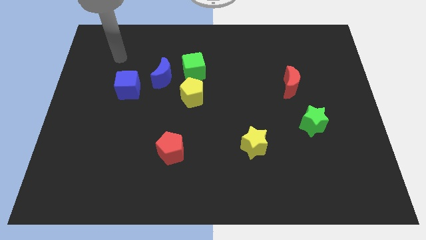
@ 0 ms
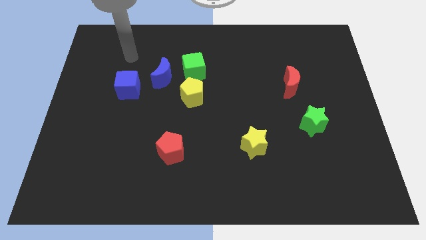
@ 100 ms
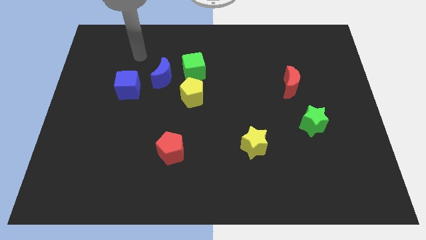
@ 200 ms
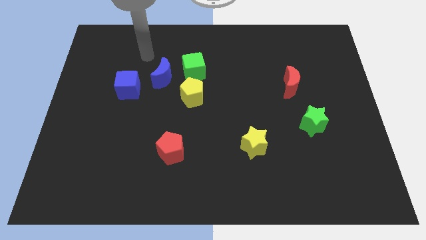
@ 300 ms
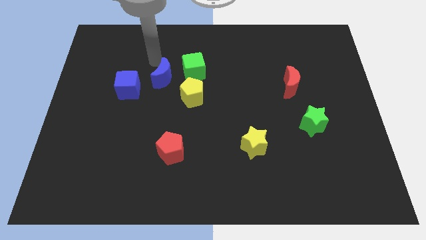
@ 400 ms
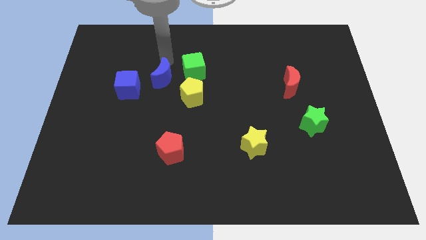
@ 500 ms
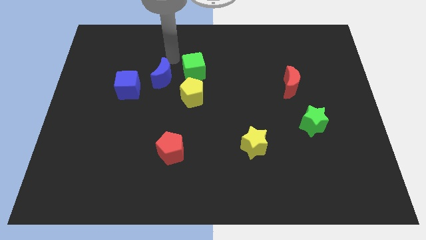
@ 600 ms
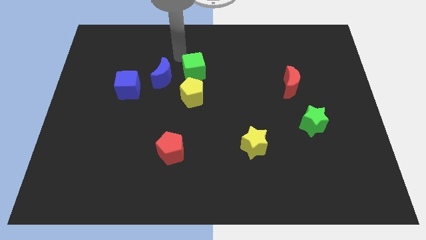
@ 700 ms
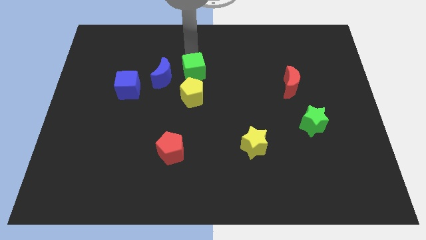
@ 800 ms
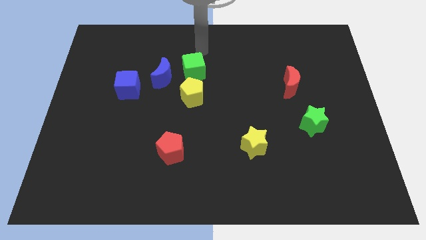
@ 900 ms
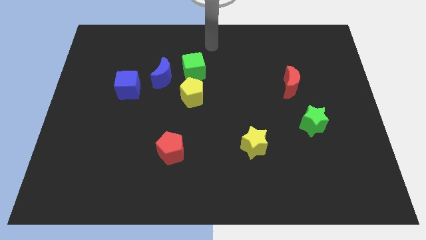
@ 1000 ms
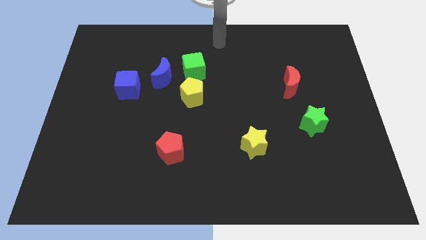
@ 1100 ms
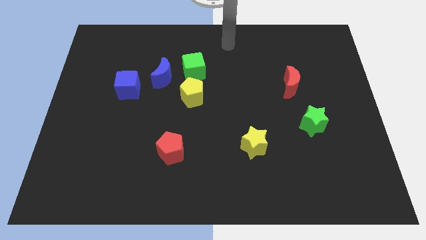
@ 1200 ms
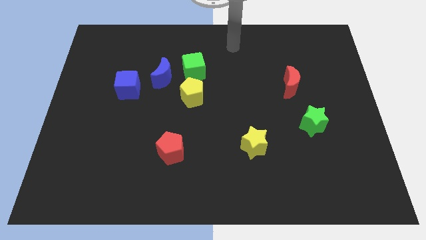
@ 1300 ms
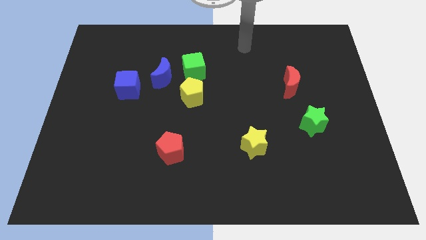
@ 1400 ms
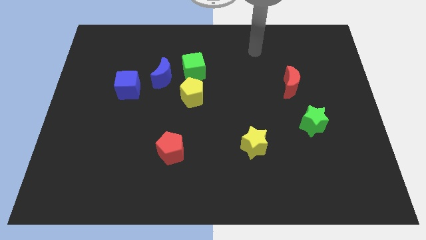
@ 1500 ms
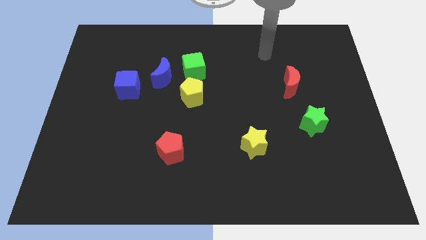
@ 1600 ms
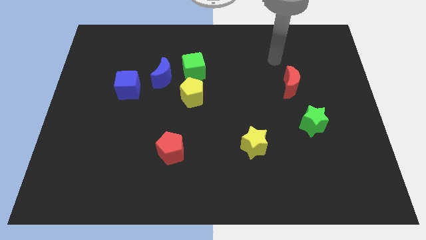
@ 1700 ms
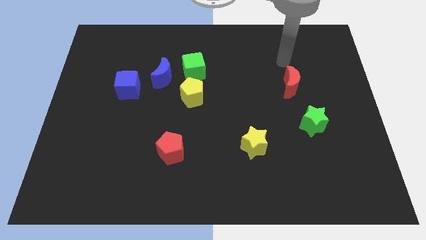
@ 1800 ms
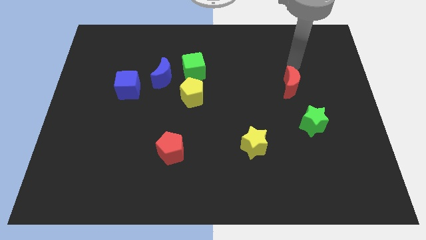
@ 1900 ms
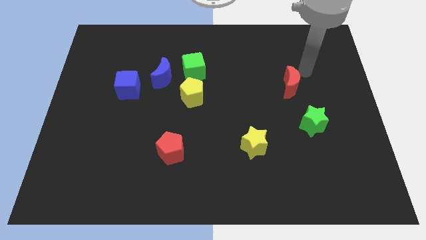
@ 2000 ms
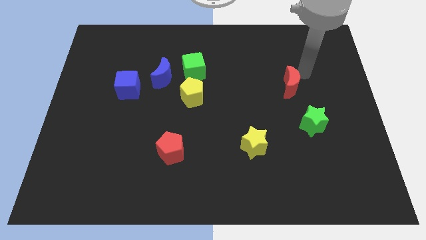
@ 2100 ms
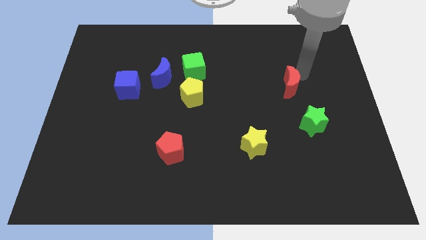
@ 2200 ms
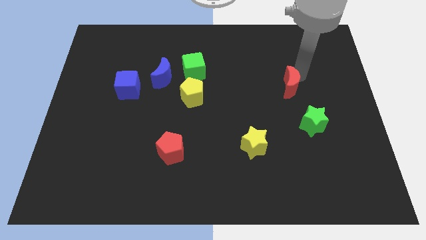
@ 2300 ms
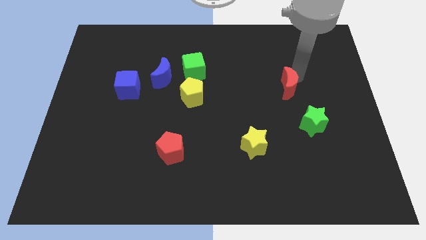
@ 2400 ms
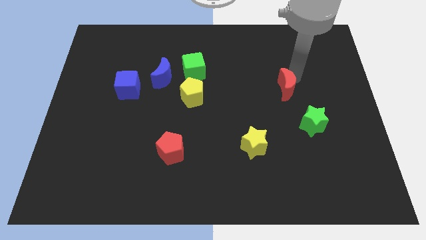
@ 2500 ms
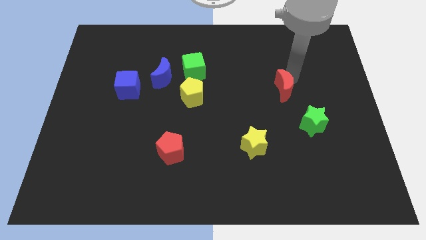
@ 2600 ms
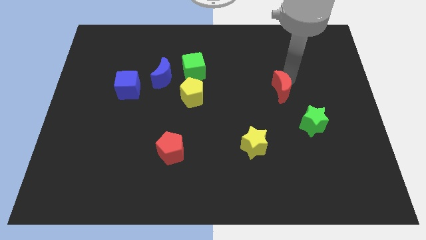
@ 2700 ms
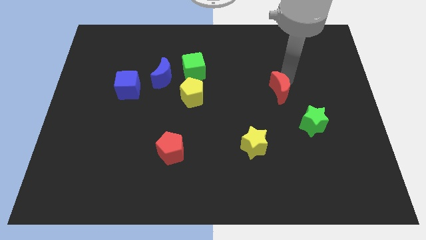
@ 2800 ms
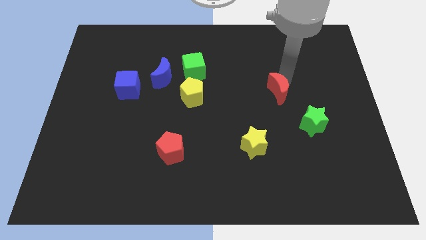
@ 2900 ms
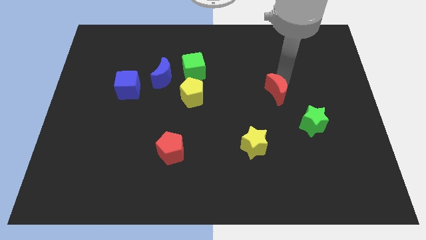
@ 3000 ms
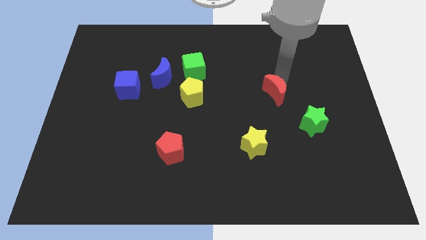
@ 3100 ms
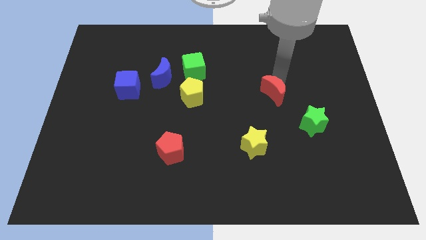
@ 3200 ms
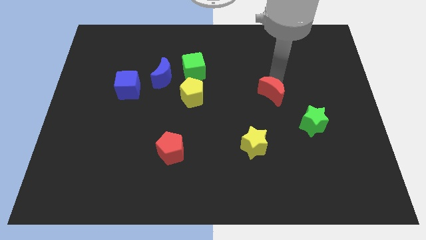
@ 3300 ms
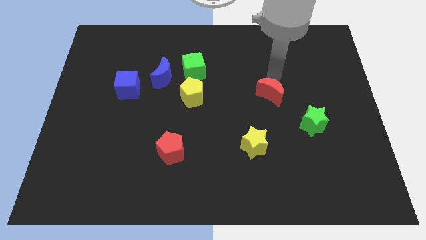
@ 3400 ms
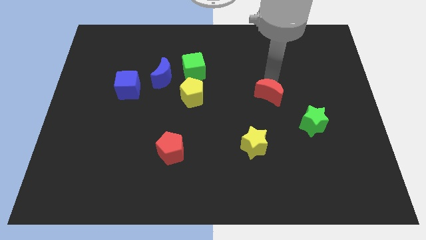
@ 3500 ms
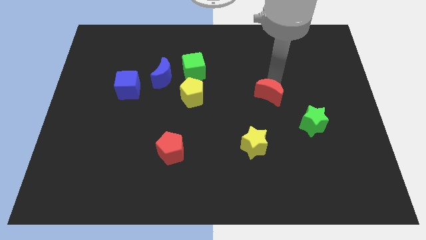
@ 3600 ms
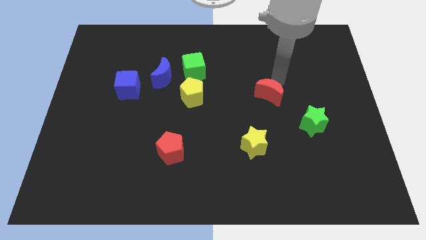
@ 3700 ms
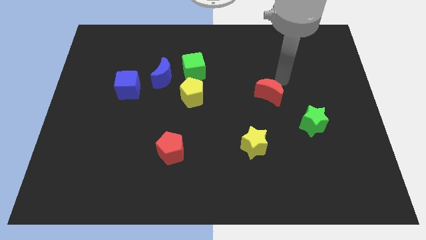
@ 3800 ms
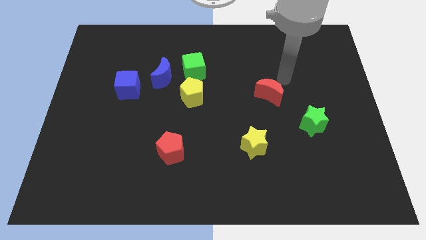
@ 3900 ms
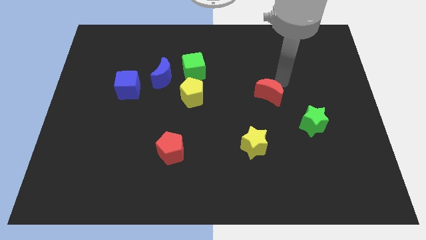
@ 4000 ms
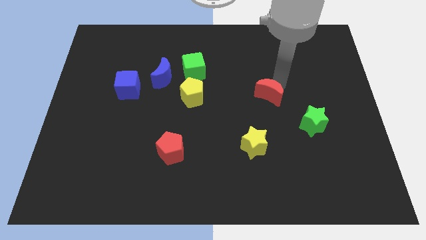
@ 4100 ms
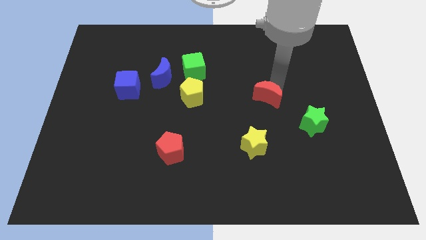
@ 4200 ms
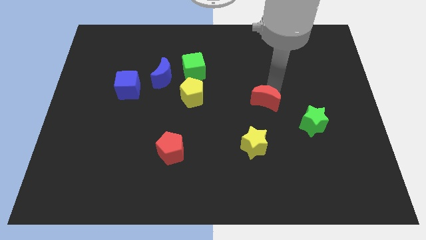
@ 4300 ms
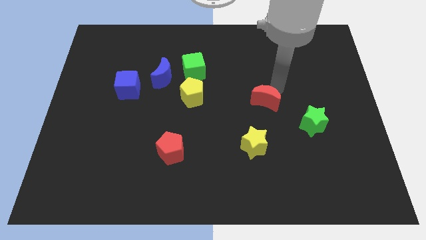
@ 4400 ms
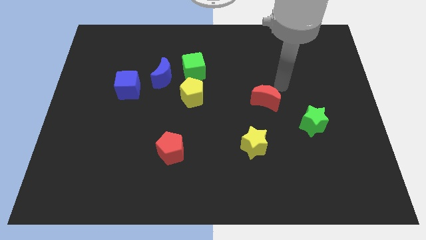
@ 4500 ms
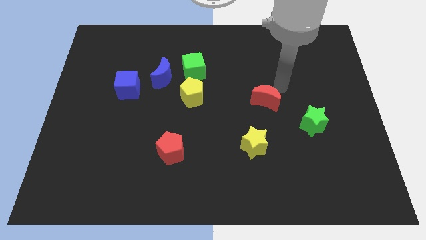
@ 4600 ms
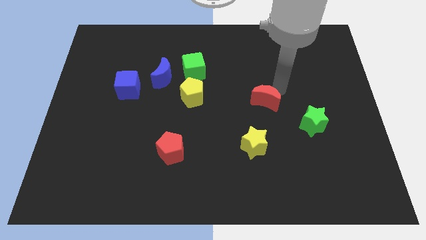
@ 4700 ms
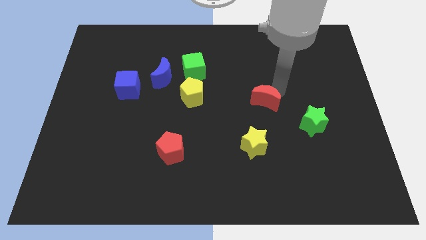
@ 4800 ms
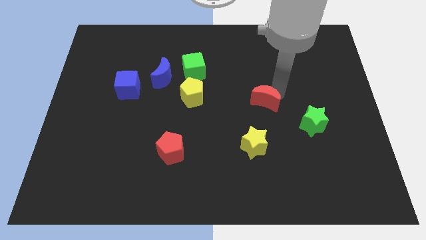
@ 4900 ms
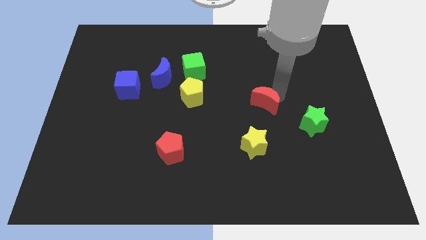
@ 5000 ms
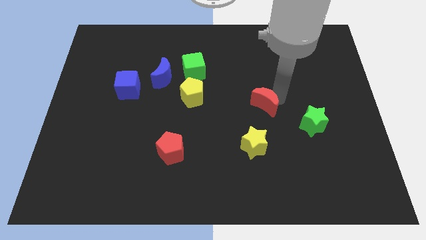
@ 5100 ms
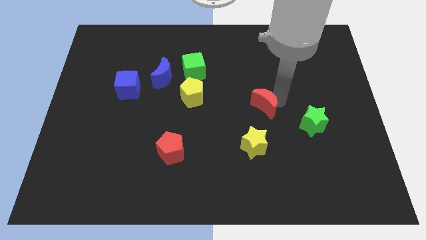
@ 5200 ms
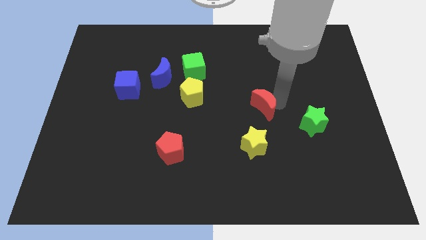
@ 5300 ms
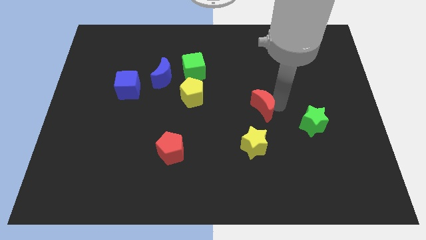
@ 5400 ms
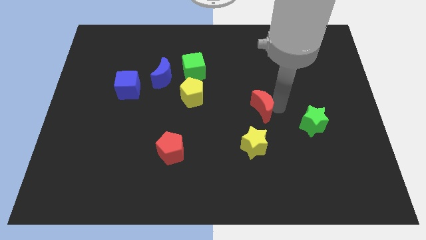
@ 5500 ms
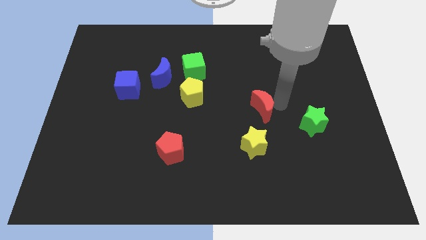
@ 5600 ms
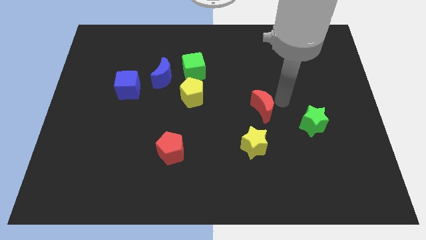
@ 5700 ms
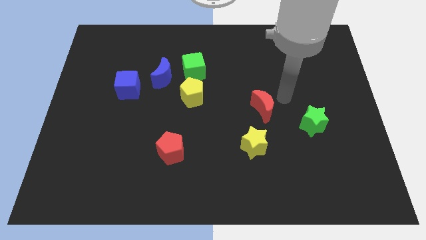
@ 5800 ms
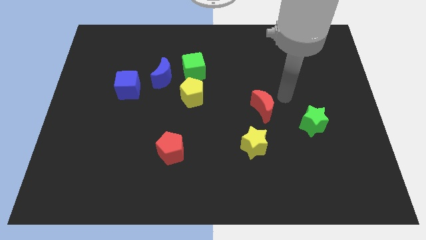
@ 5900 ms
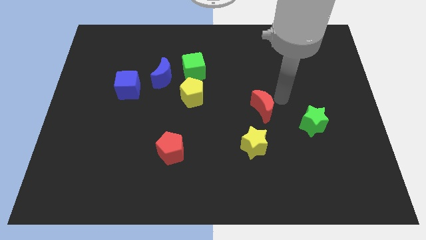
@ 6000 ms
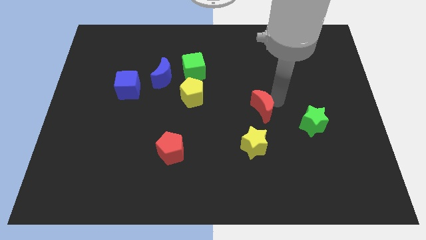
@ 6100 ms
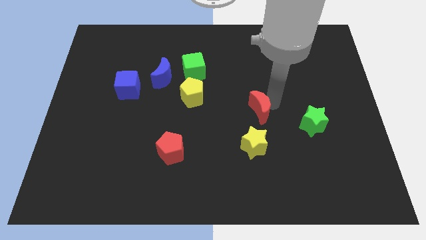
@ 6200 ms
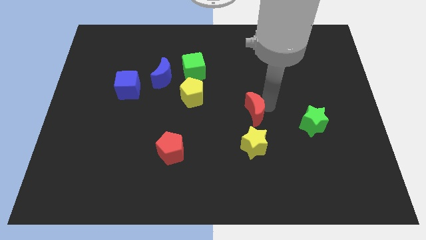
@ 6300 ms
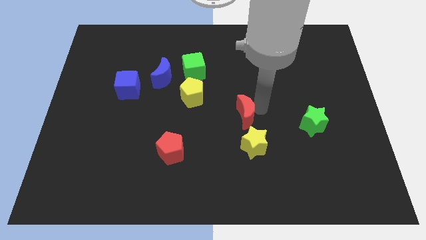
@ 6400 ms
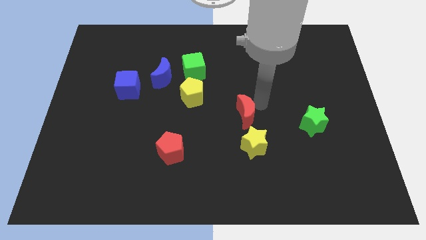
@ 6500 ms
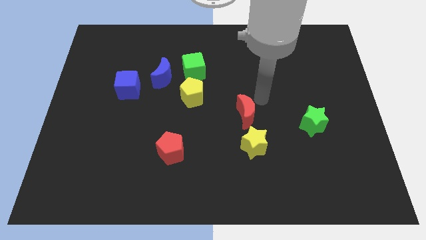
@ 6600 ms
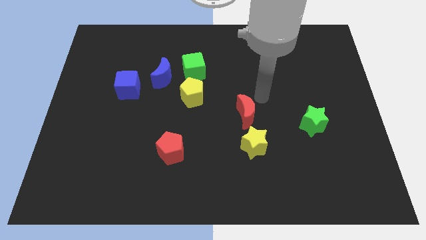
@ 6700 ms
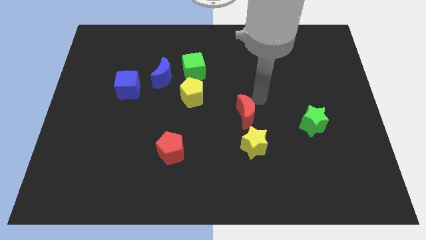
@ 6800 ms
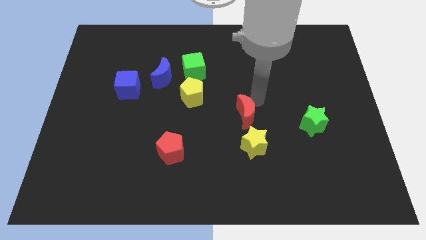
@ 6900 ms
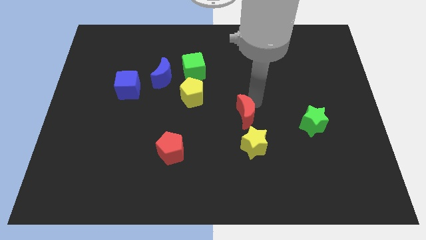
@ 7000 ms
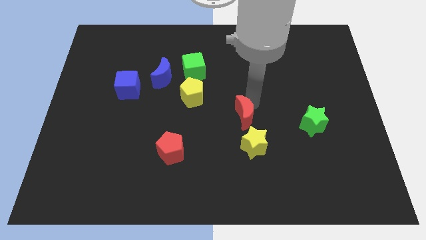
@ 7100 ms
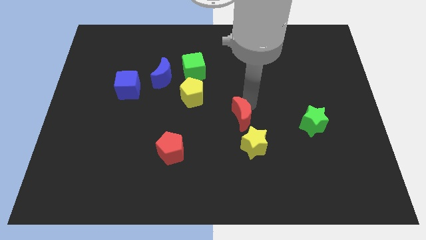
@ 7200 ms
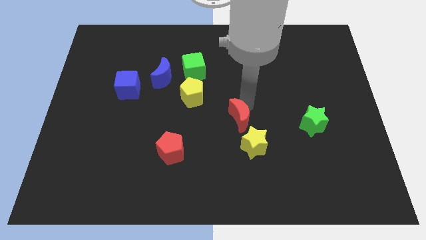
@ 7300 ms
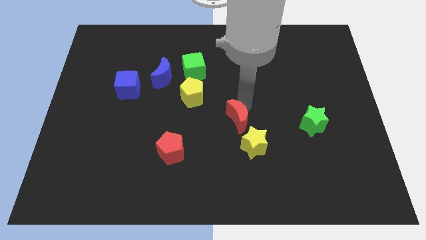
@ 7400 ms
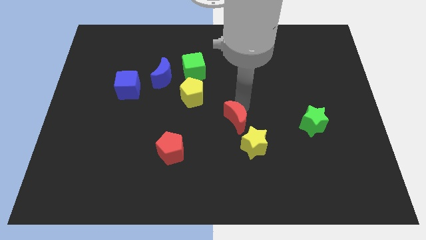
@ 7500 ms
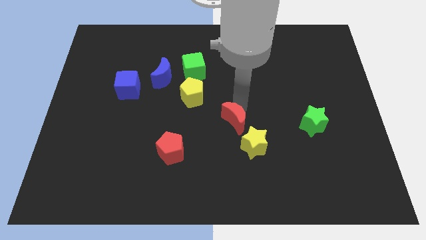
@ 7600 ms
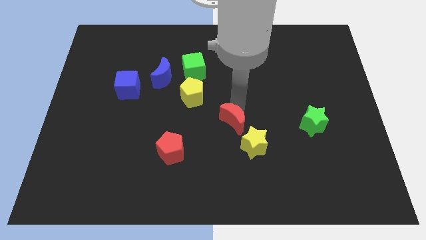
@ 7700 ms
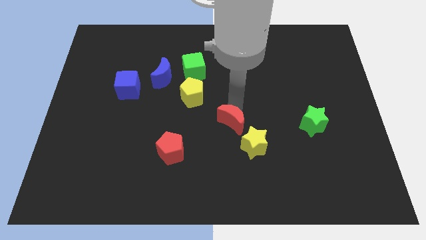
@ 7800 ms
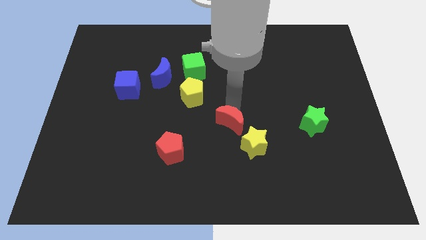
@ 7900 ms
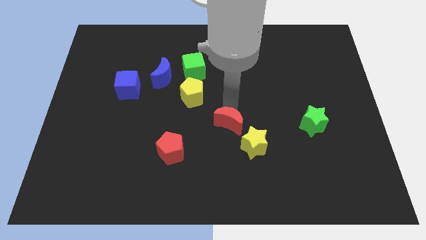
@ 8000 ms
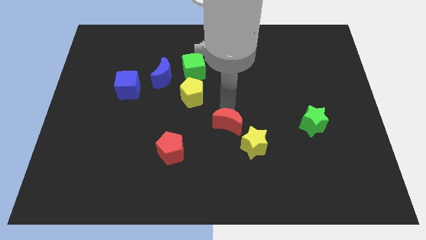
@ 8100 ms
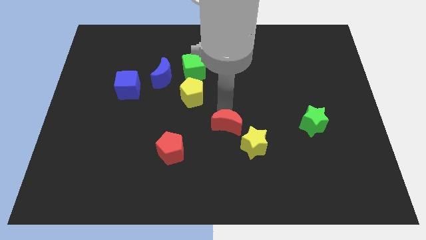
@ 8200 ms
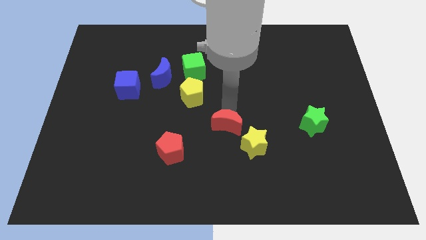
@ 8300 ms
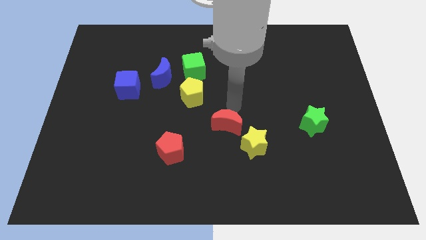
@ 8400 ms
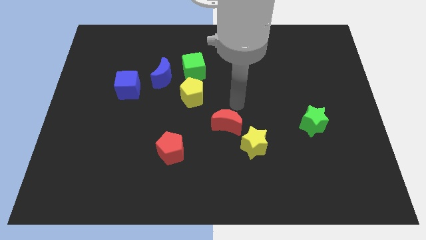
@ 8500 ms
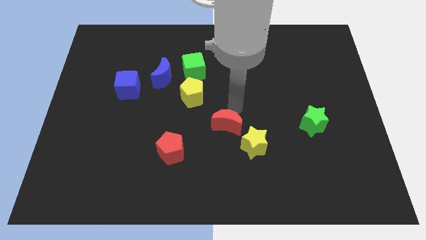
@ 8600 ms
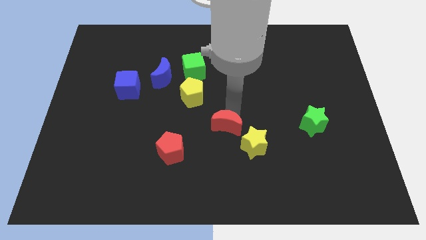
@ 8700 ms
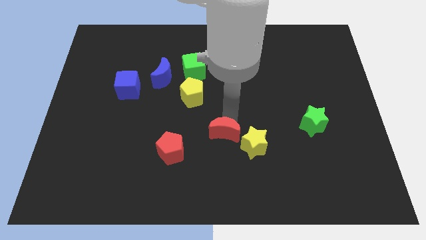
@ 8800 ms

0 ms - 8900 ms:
slide the red moon downwards and then left
